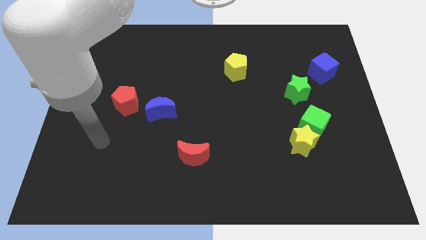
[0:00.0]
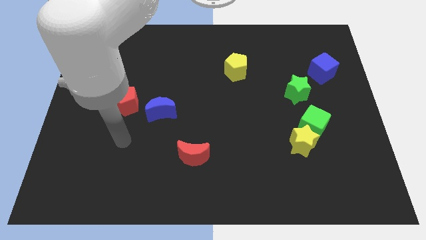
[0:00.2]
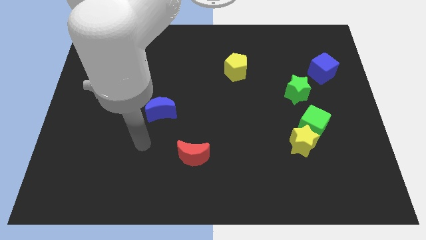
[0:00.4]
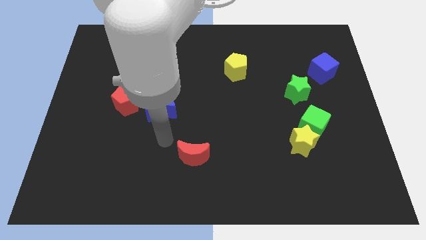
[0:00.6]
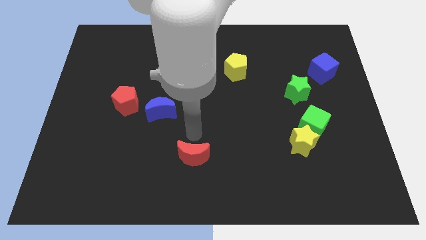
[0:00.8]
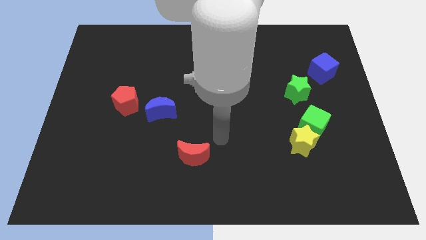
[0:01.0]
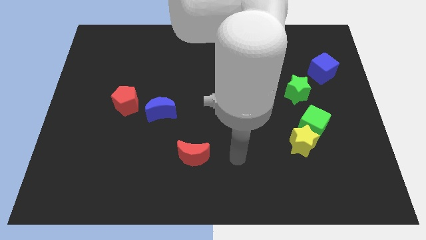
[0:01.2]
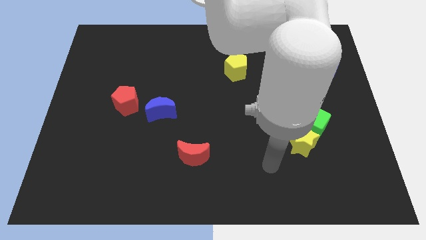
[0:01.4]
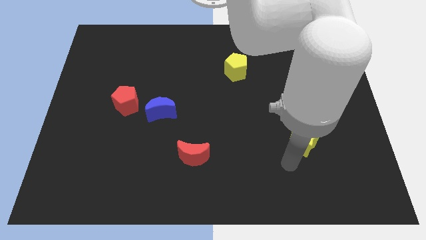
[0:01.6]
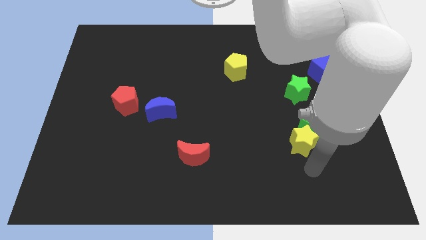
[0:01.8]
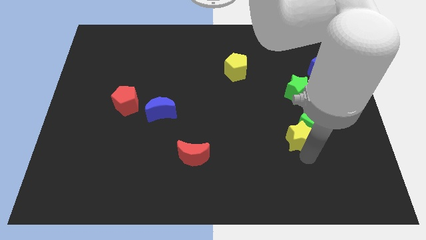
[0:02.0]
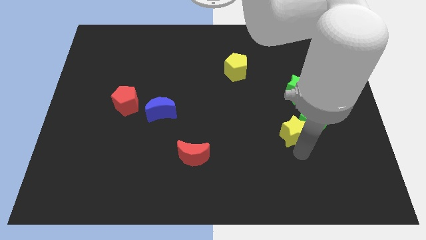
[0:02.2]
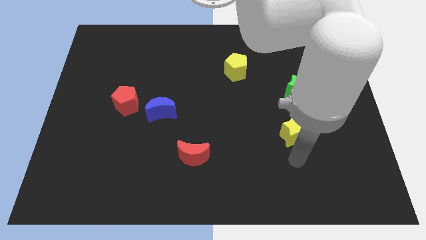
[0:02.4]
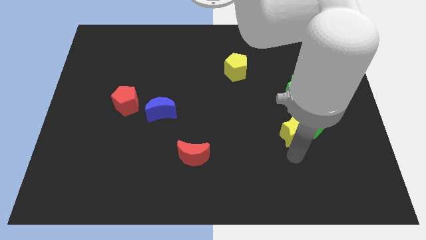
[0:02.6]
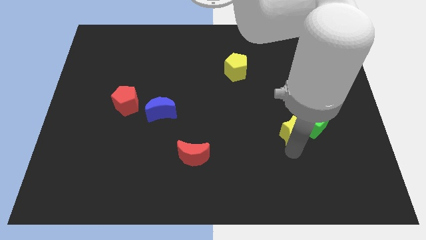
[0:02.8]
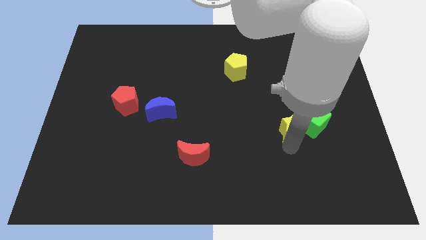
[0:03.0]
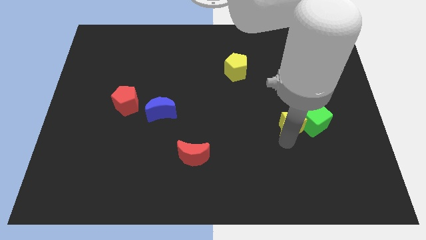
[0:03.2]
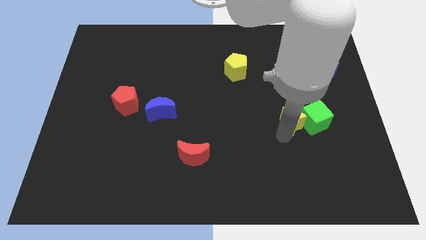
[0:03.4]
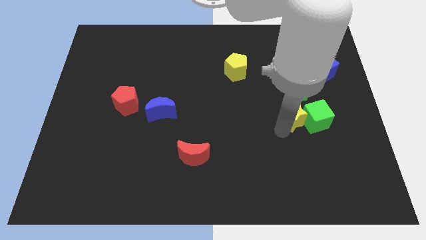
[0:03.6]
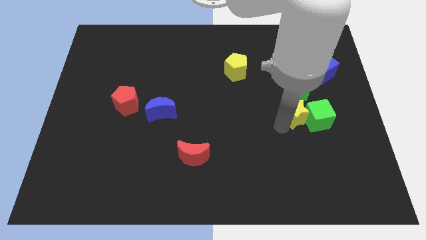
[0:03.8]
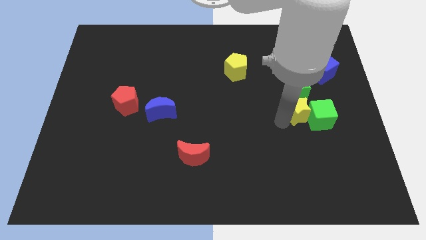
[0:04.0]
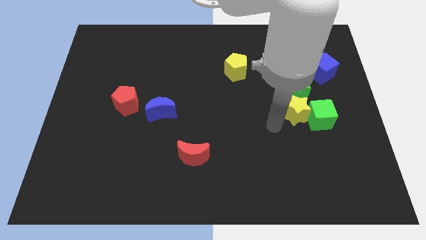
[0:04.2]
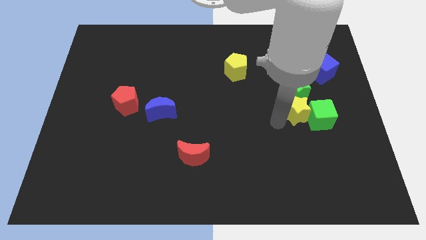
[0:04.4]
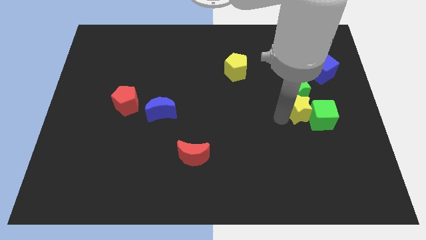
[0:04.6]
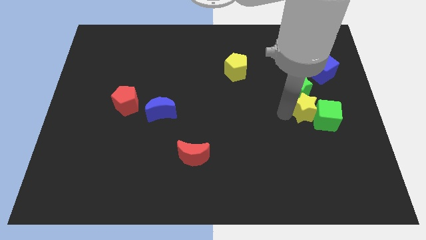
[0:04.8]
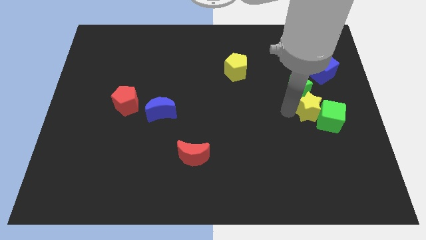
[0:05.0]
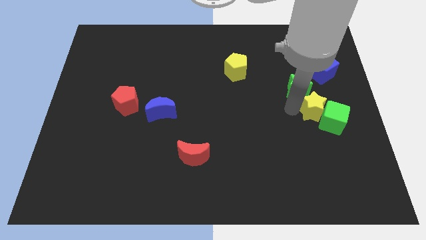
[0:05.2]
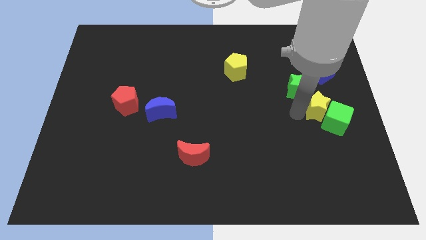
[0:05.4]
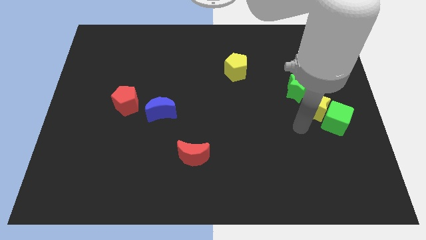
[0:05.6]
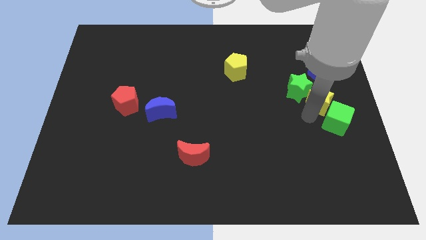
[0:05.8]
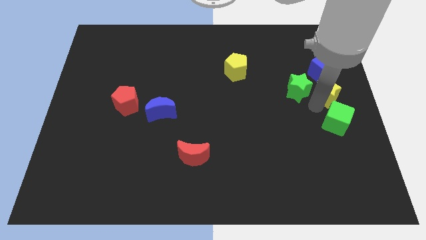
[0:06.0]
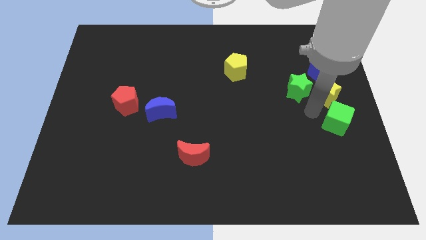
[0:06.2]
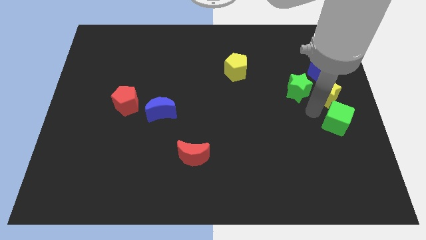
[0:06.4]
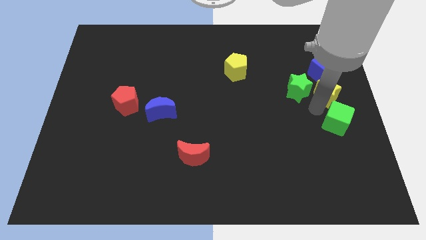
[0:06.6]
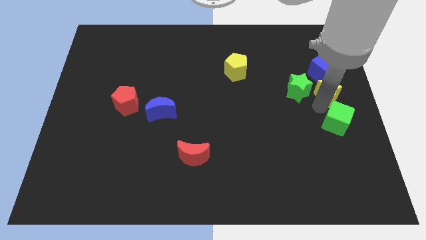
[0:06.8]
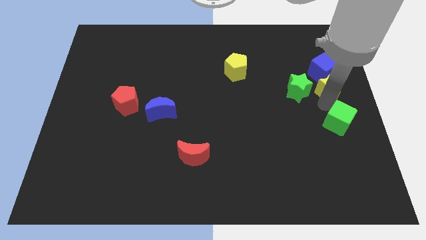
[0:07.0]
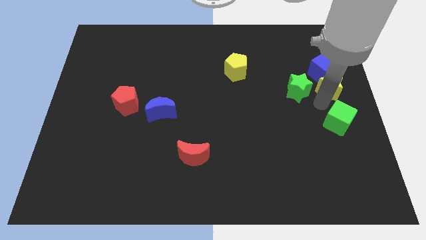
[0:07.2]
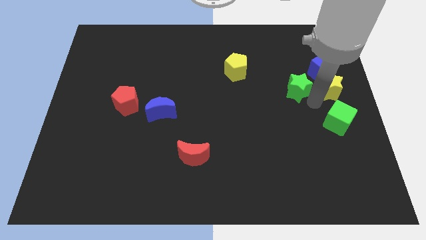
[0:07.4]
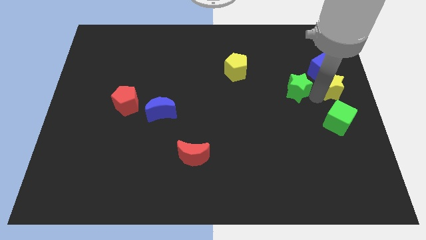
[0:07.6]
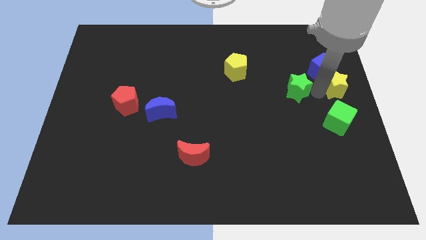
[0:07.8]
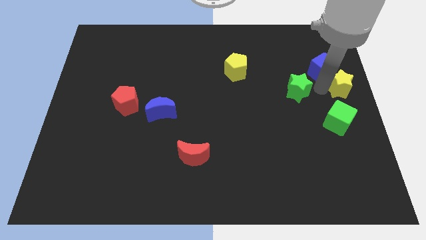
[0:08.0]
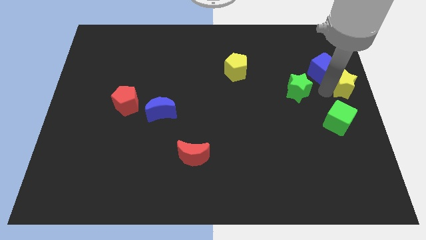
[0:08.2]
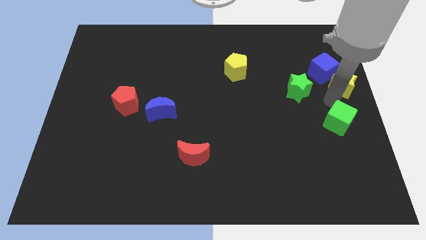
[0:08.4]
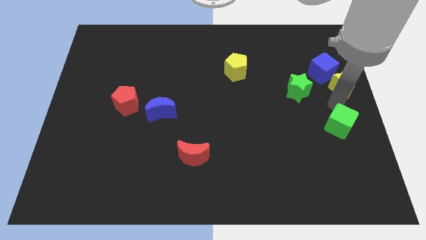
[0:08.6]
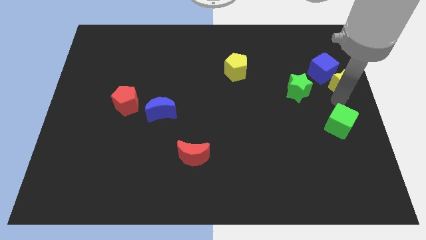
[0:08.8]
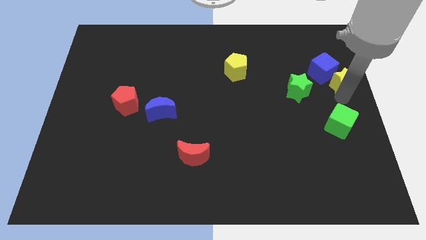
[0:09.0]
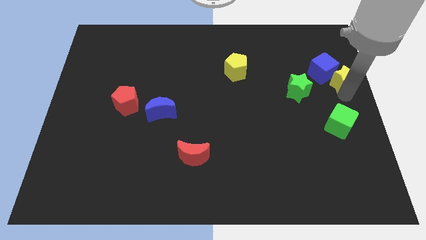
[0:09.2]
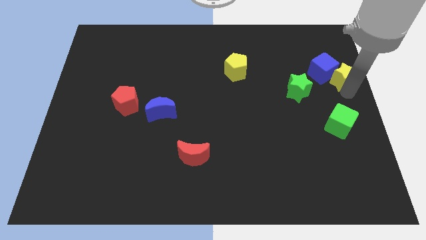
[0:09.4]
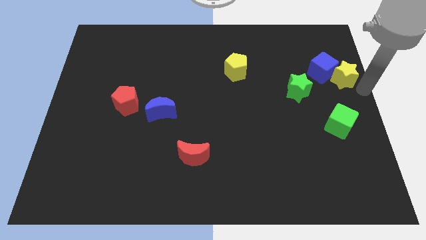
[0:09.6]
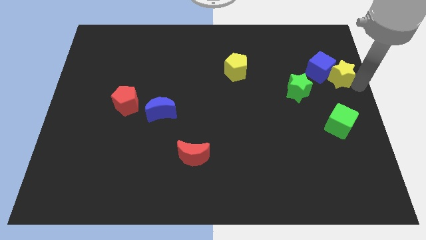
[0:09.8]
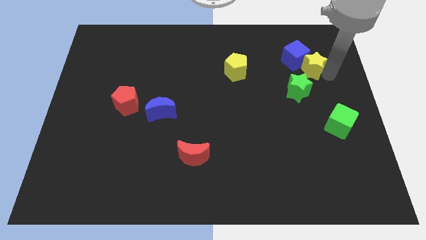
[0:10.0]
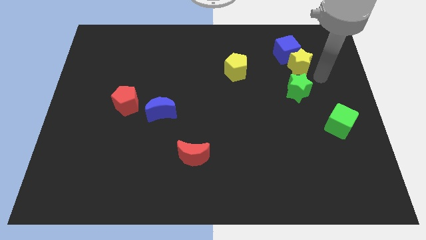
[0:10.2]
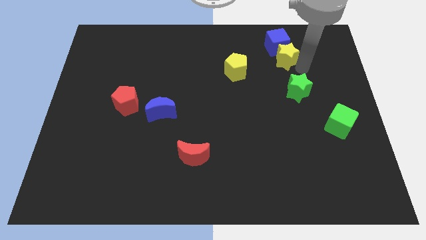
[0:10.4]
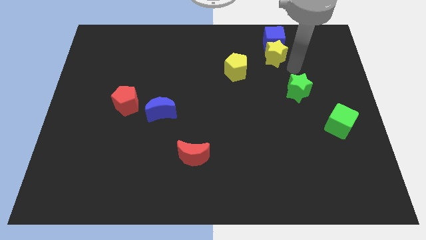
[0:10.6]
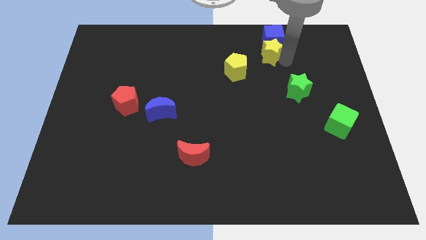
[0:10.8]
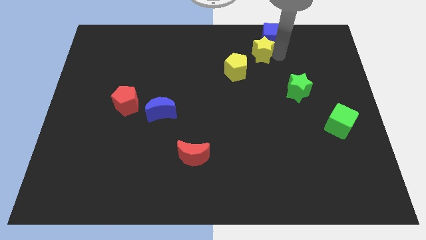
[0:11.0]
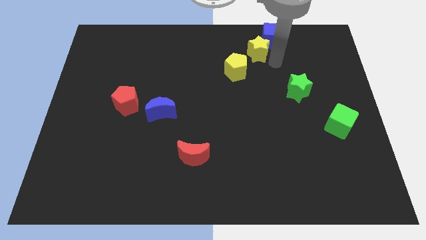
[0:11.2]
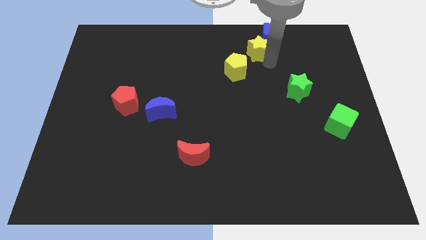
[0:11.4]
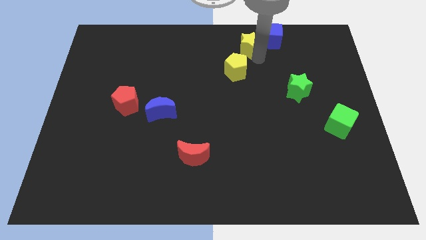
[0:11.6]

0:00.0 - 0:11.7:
push the yellow star to the top side

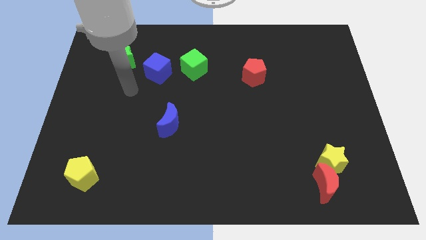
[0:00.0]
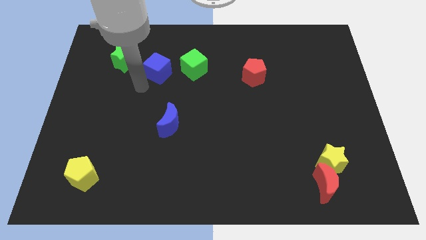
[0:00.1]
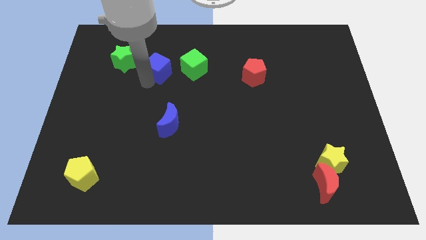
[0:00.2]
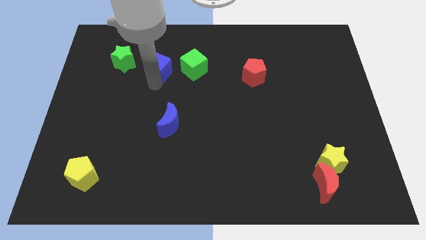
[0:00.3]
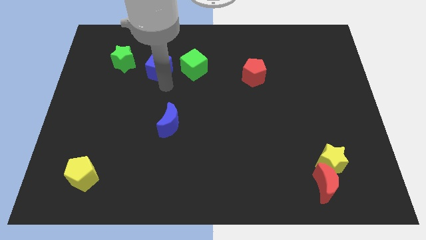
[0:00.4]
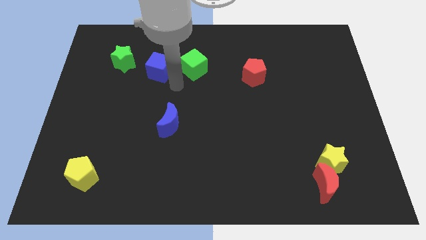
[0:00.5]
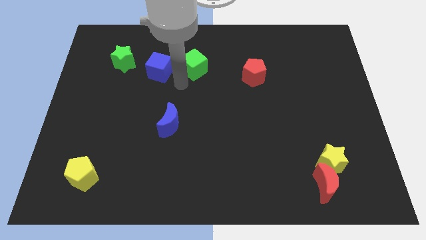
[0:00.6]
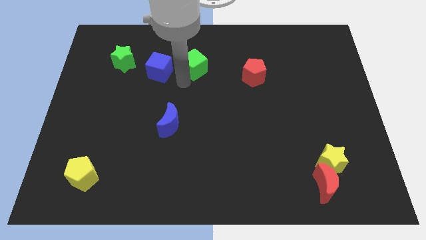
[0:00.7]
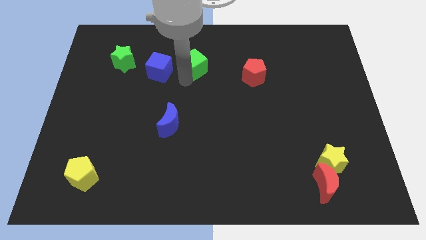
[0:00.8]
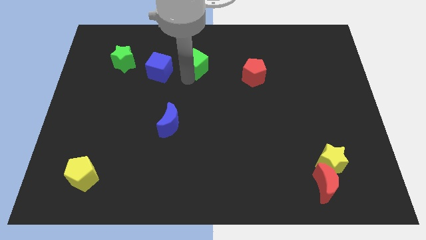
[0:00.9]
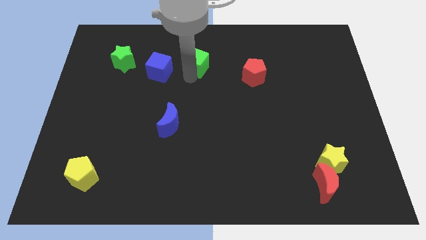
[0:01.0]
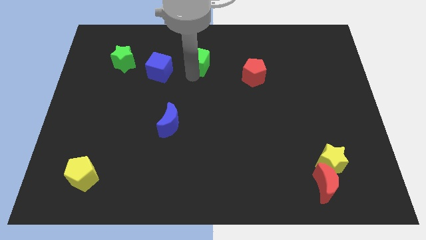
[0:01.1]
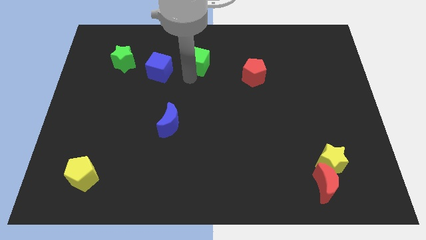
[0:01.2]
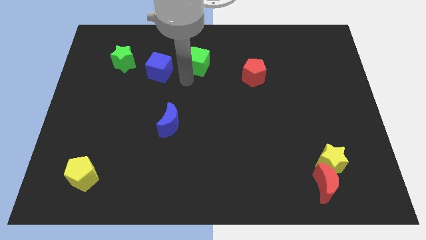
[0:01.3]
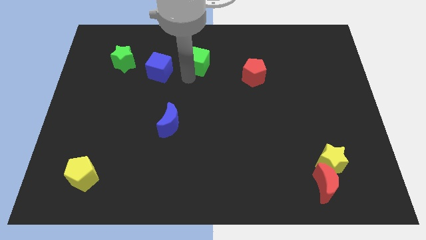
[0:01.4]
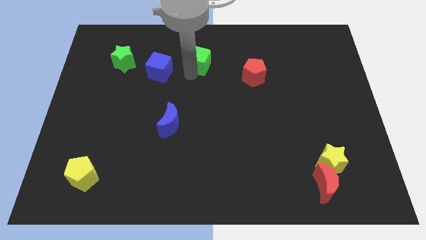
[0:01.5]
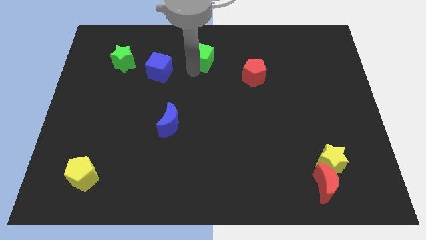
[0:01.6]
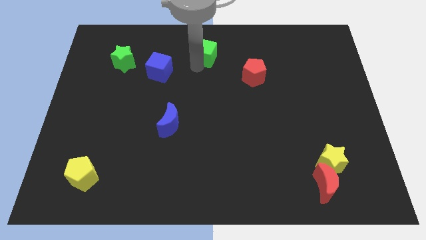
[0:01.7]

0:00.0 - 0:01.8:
push the green cube to the towards your base

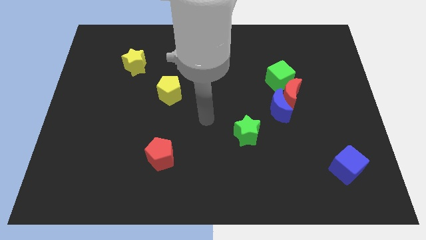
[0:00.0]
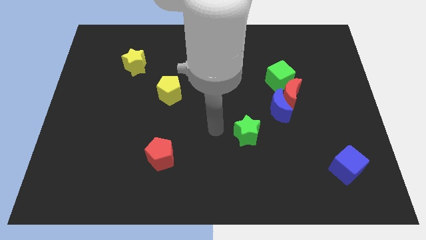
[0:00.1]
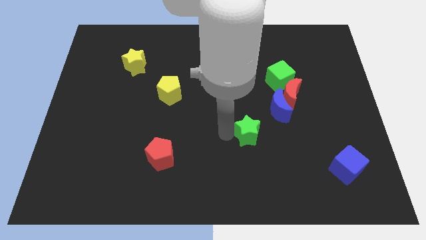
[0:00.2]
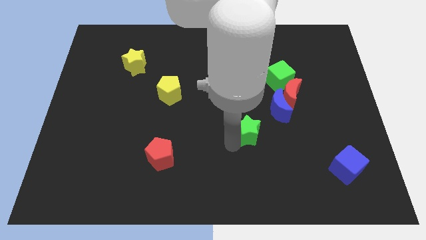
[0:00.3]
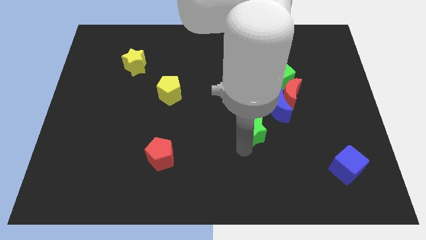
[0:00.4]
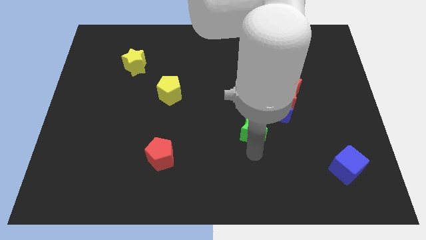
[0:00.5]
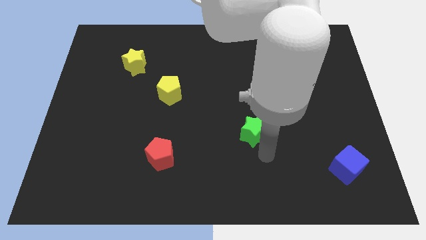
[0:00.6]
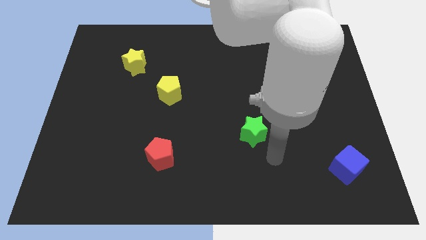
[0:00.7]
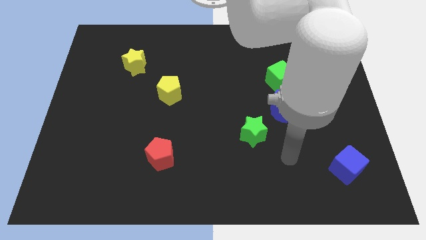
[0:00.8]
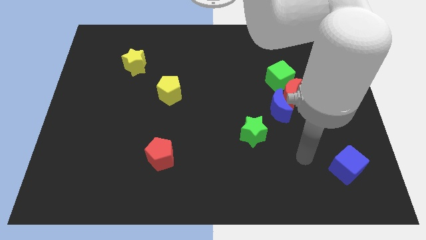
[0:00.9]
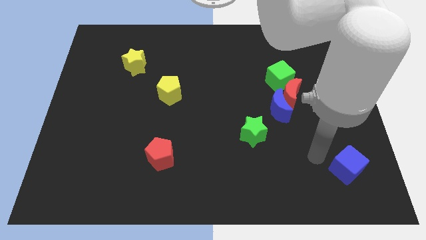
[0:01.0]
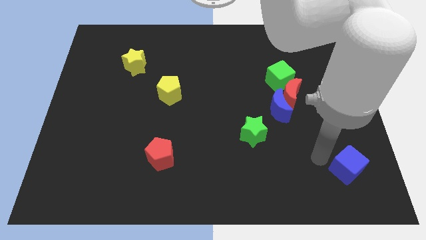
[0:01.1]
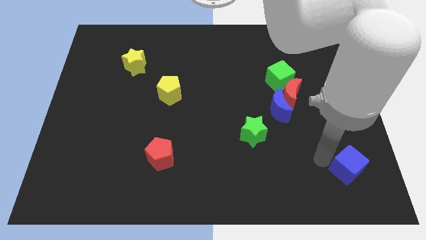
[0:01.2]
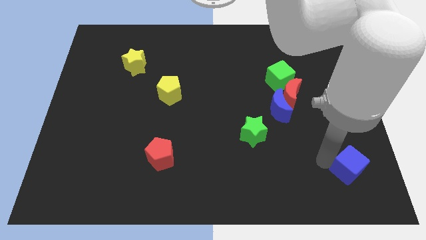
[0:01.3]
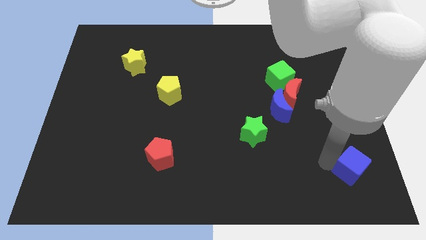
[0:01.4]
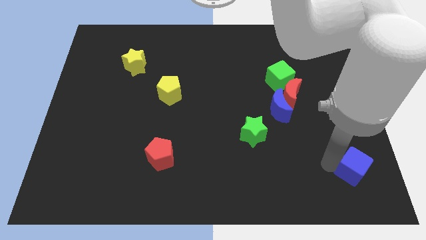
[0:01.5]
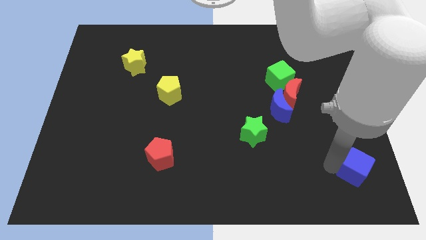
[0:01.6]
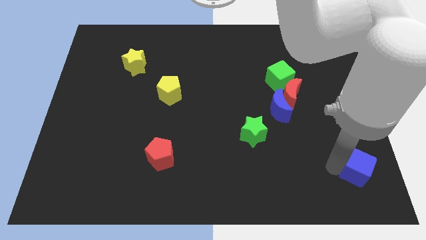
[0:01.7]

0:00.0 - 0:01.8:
put the blue cube to the bottom right corner
